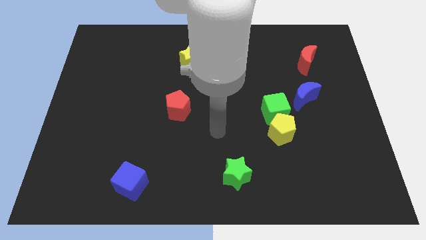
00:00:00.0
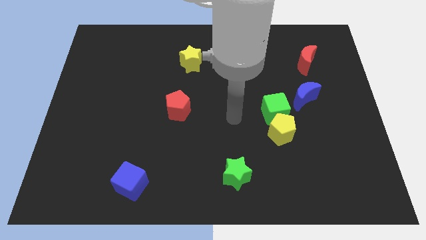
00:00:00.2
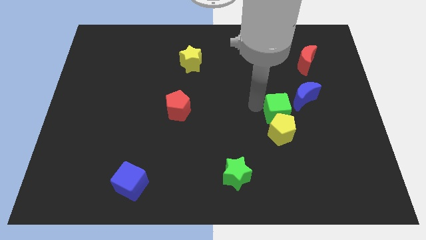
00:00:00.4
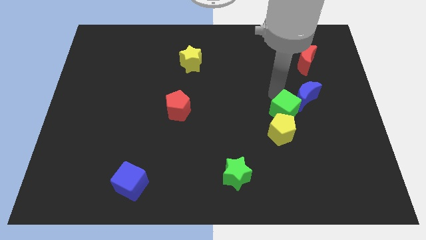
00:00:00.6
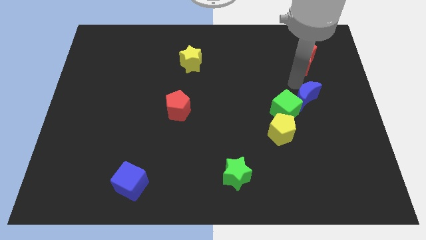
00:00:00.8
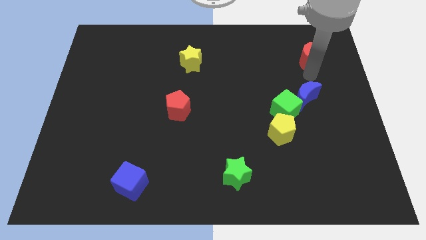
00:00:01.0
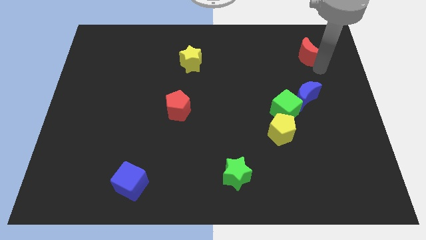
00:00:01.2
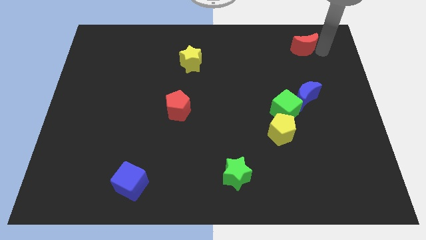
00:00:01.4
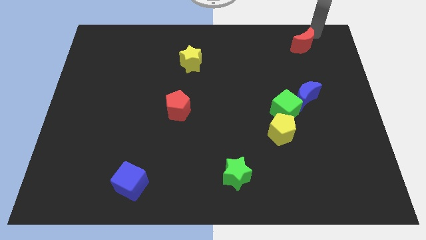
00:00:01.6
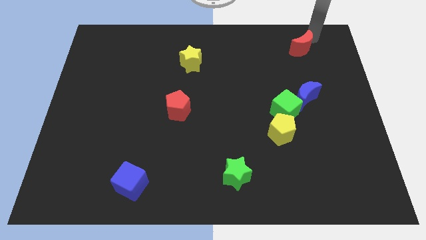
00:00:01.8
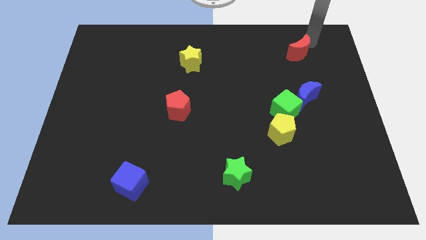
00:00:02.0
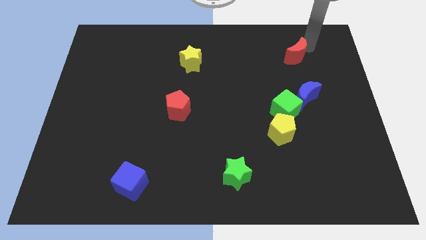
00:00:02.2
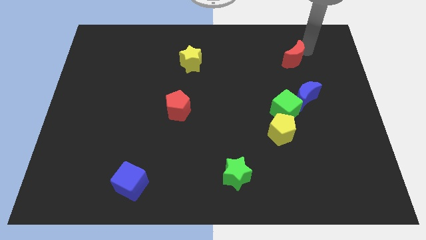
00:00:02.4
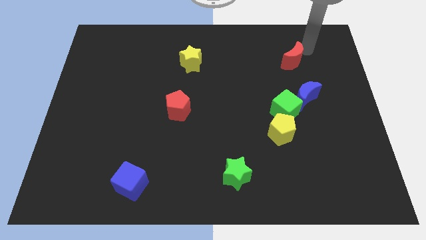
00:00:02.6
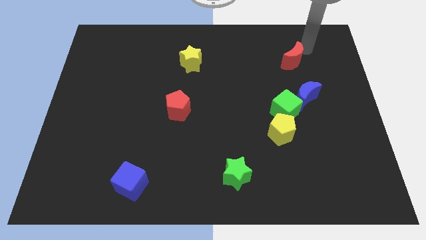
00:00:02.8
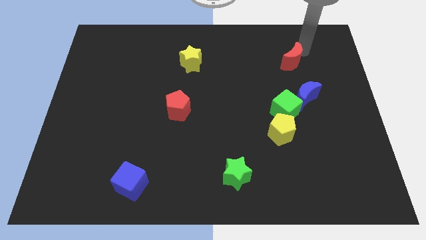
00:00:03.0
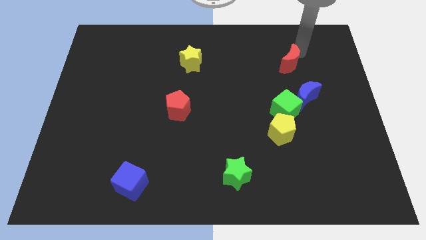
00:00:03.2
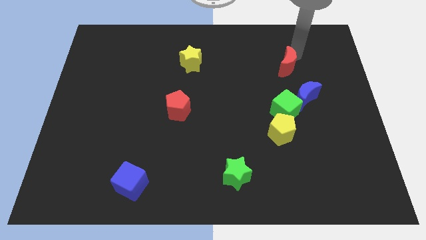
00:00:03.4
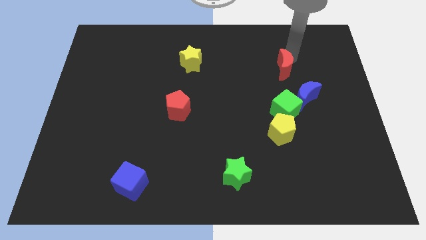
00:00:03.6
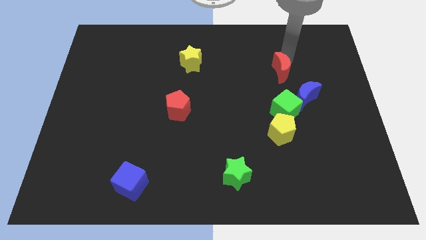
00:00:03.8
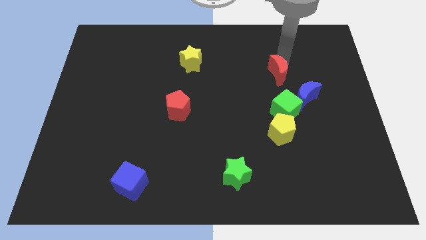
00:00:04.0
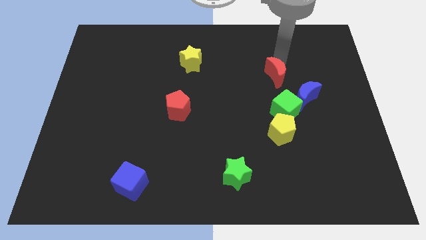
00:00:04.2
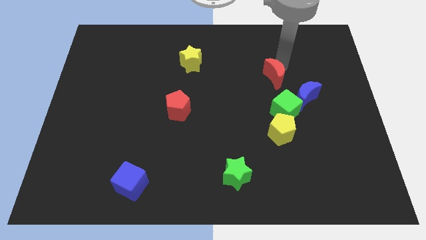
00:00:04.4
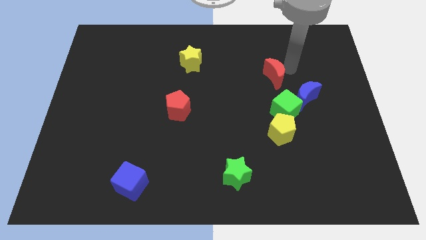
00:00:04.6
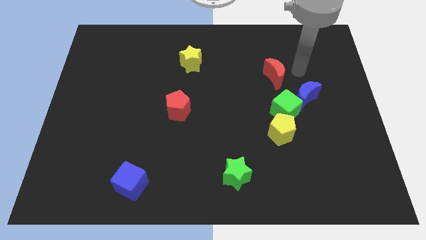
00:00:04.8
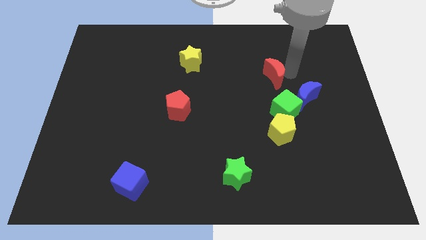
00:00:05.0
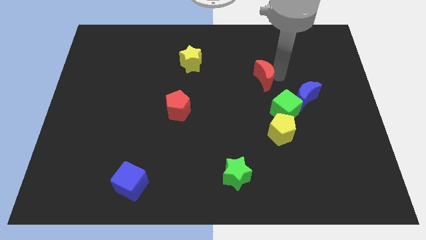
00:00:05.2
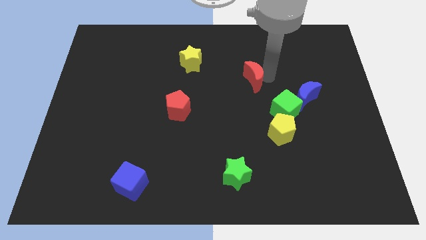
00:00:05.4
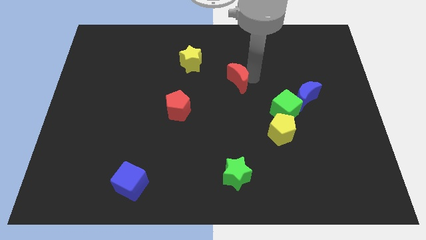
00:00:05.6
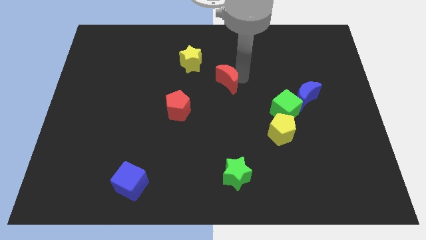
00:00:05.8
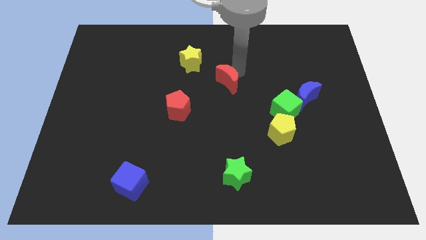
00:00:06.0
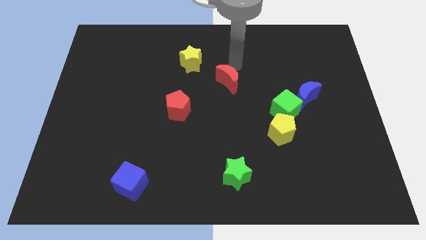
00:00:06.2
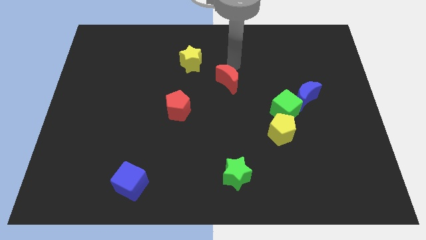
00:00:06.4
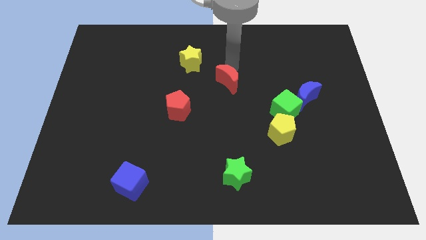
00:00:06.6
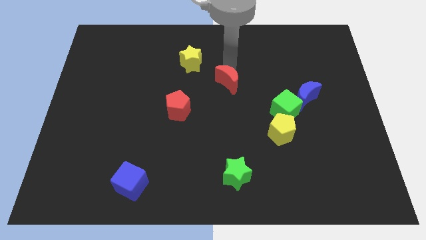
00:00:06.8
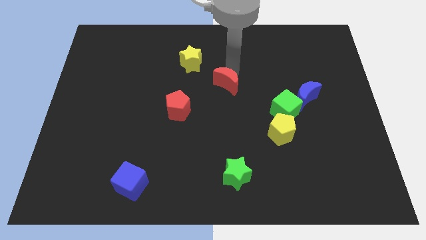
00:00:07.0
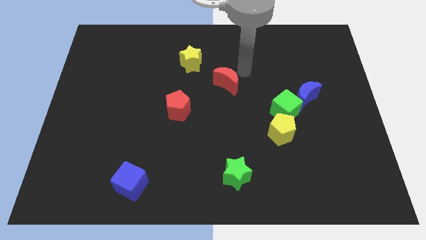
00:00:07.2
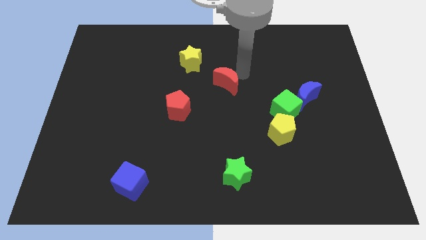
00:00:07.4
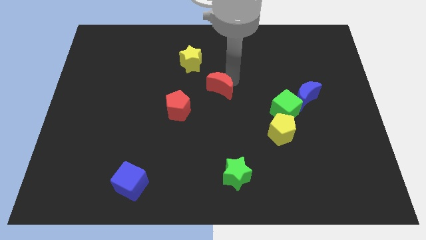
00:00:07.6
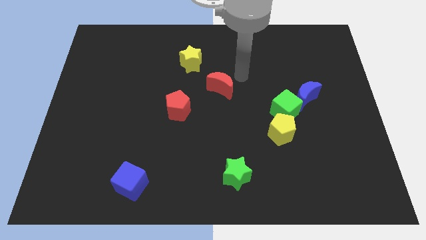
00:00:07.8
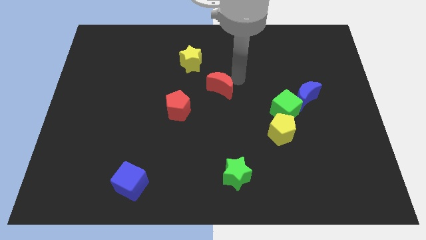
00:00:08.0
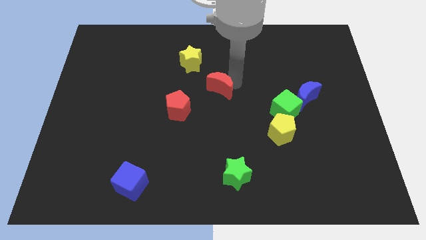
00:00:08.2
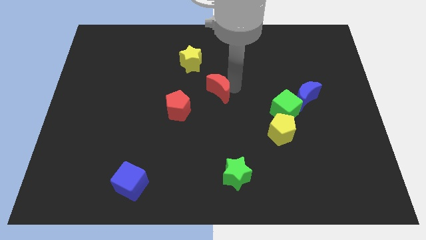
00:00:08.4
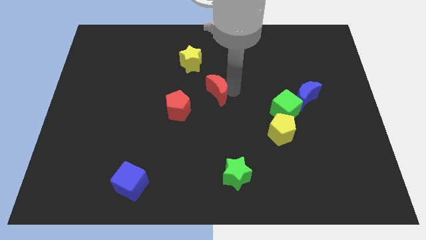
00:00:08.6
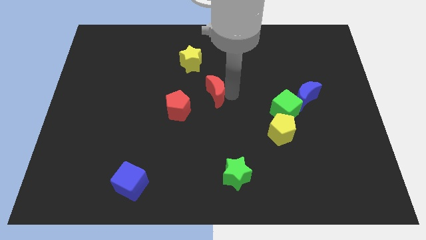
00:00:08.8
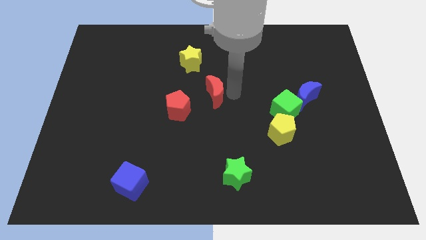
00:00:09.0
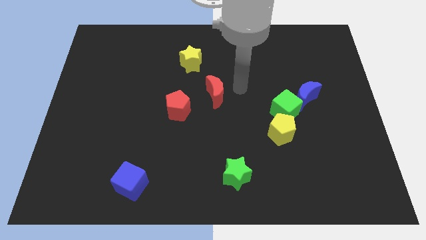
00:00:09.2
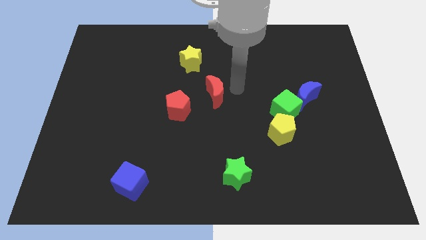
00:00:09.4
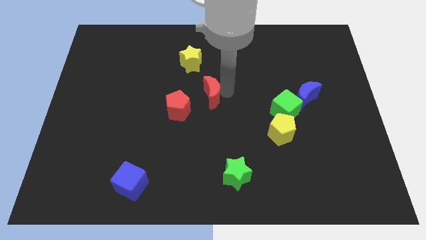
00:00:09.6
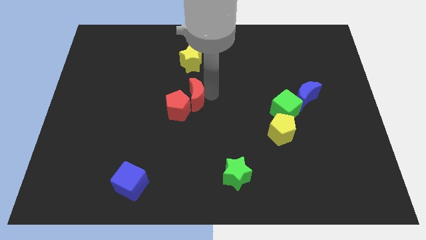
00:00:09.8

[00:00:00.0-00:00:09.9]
push the red moon towards the red pentagon

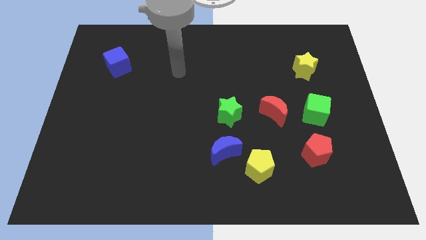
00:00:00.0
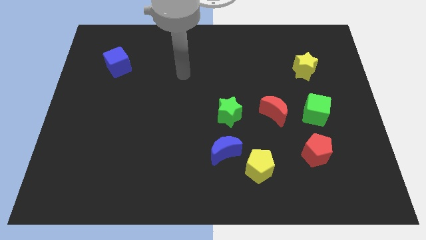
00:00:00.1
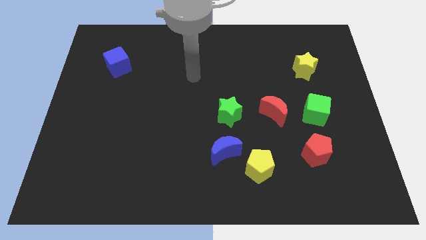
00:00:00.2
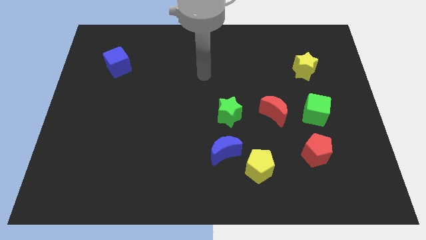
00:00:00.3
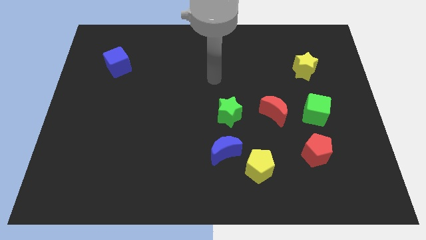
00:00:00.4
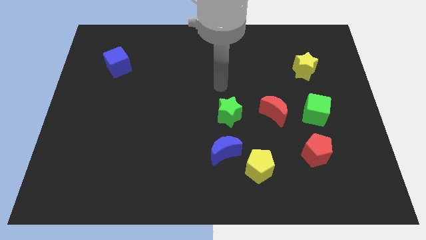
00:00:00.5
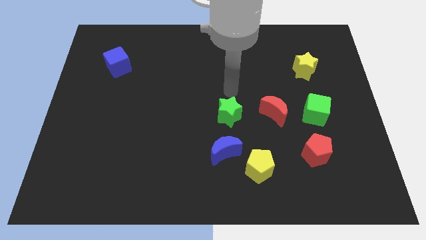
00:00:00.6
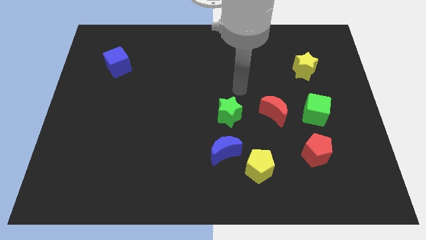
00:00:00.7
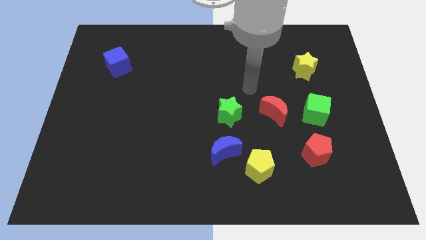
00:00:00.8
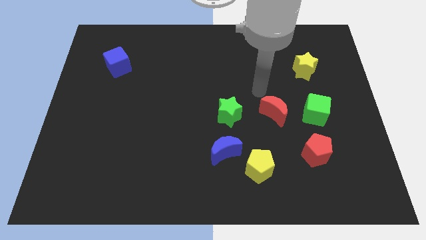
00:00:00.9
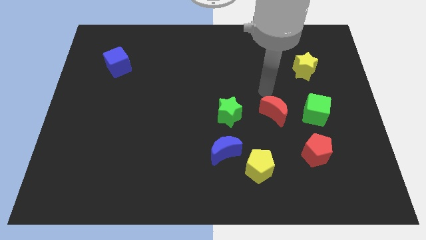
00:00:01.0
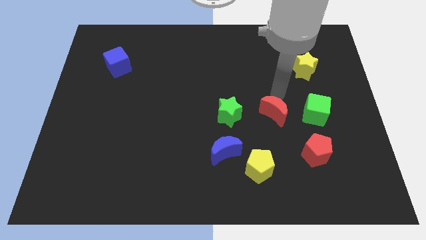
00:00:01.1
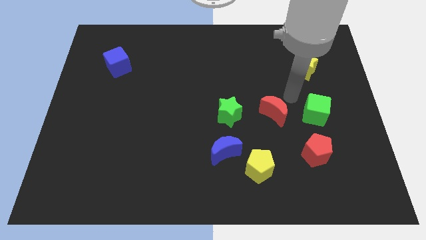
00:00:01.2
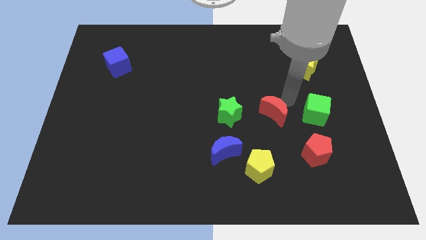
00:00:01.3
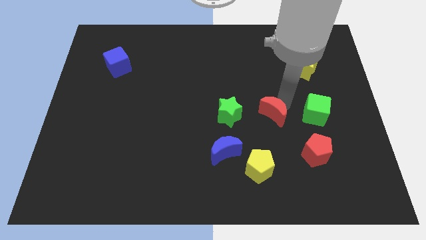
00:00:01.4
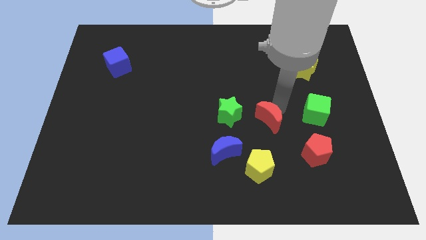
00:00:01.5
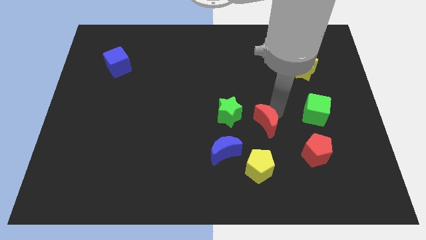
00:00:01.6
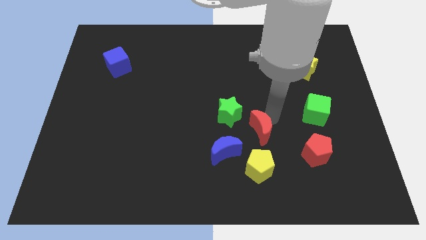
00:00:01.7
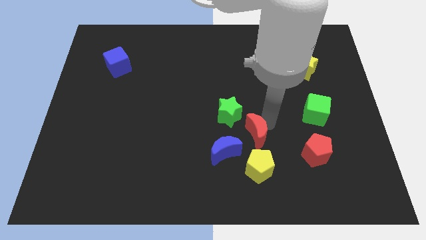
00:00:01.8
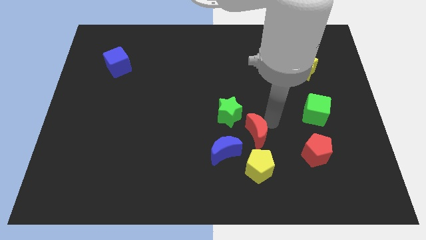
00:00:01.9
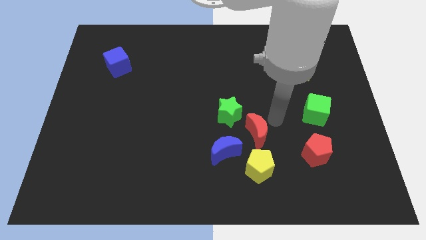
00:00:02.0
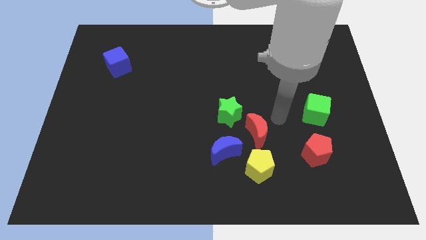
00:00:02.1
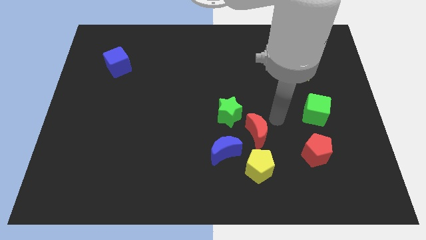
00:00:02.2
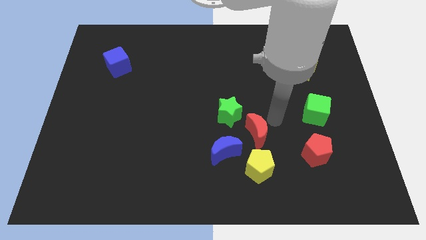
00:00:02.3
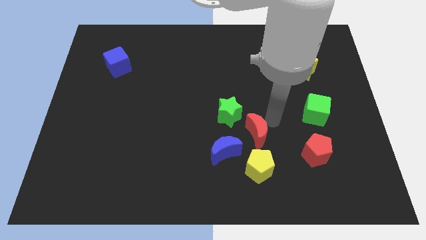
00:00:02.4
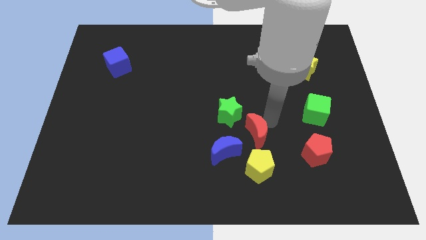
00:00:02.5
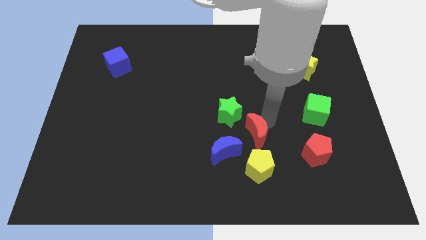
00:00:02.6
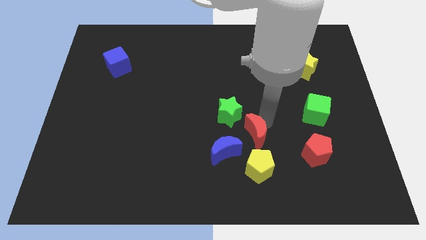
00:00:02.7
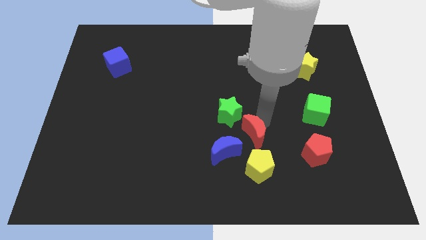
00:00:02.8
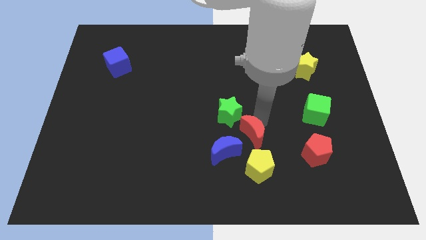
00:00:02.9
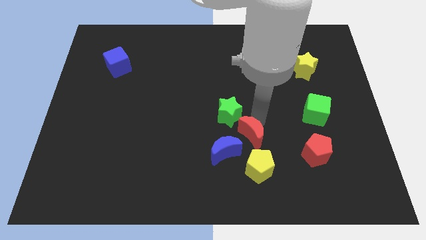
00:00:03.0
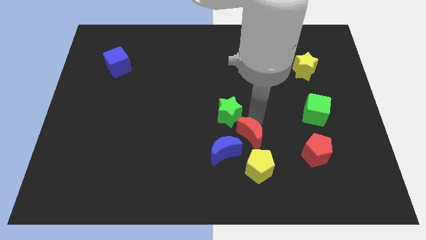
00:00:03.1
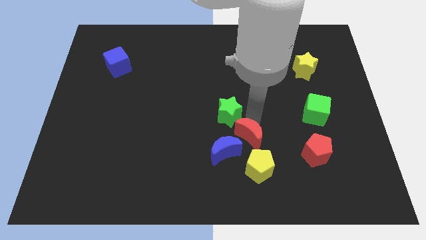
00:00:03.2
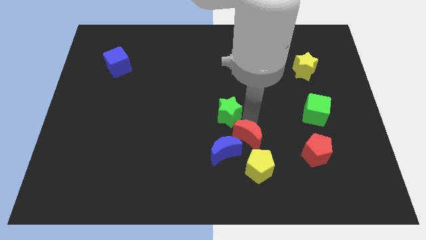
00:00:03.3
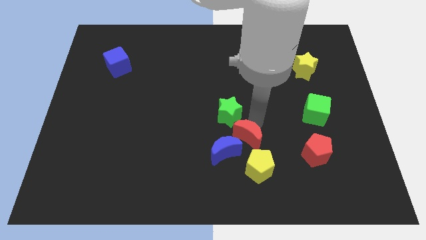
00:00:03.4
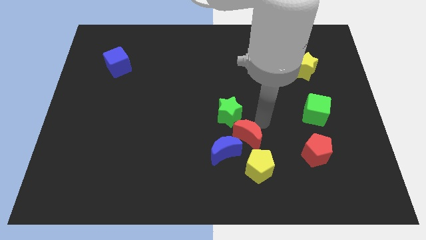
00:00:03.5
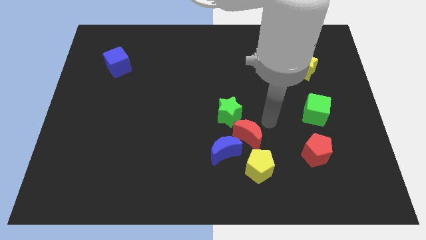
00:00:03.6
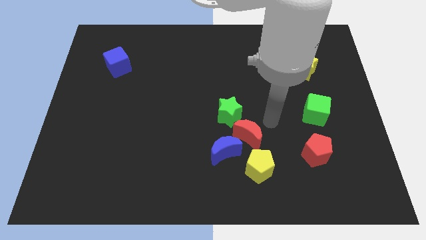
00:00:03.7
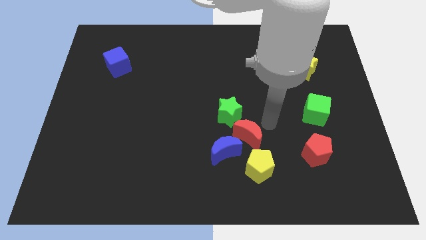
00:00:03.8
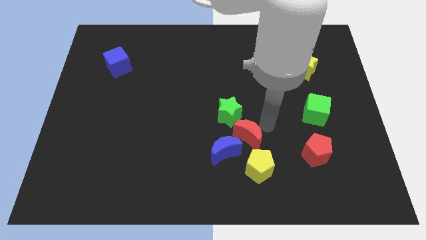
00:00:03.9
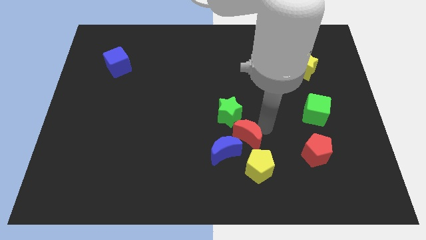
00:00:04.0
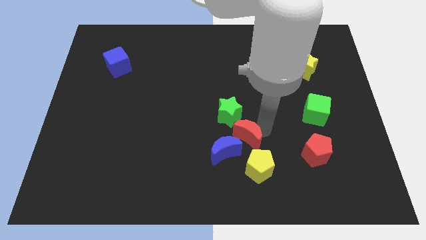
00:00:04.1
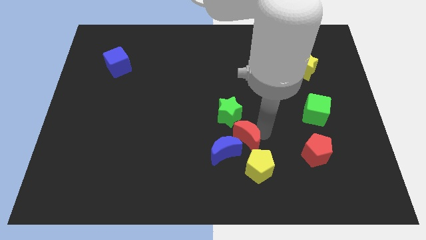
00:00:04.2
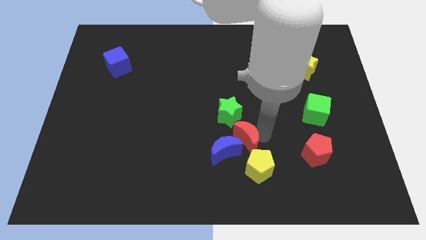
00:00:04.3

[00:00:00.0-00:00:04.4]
move the red moon next to the blue moon
